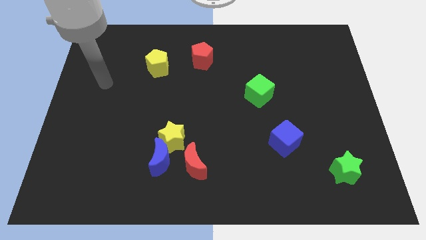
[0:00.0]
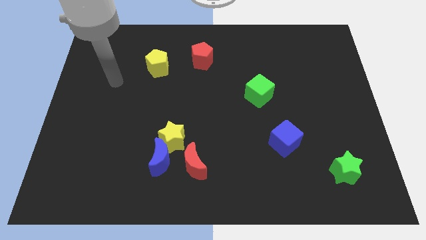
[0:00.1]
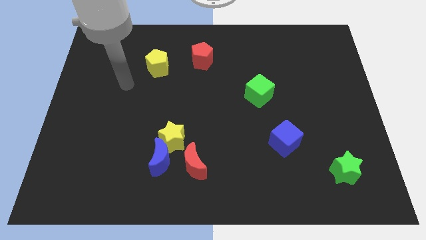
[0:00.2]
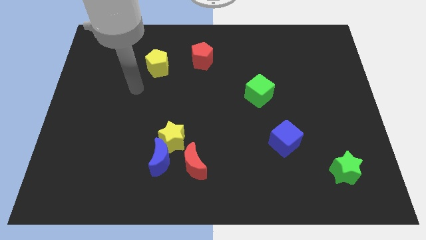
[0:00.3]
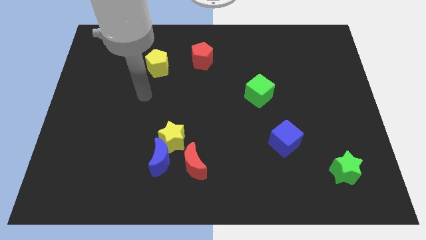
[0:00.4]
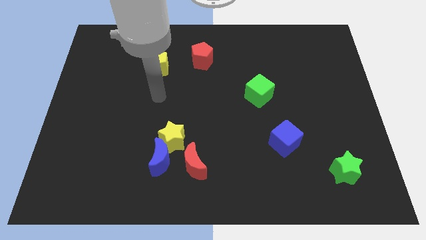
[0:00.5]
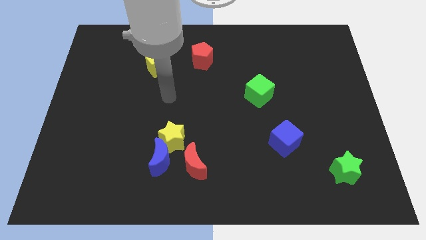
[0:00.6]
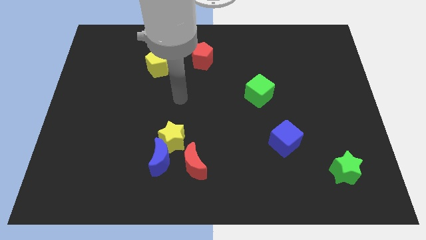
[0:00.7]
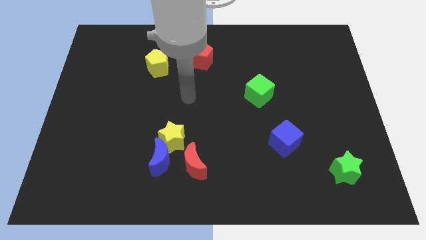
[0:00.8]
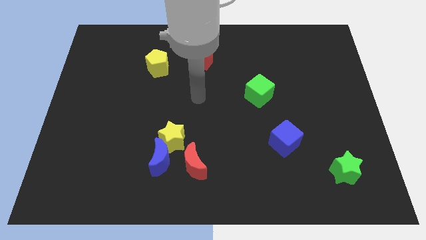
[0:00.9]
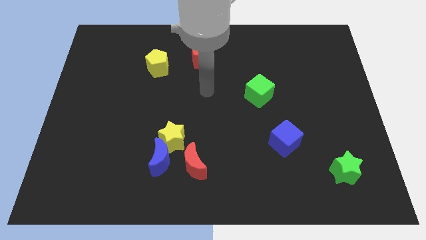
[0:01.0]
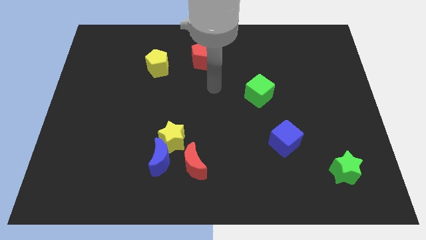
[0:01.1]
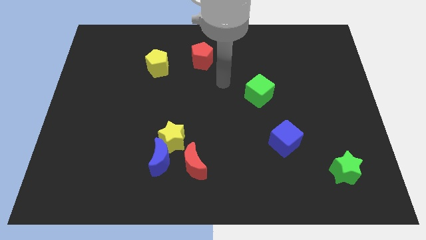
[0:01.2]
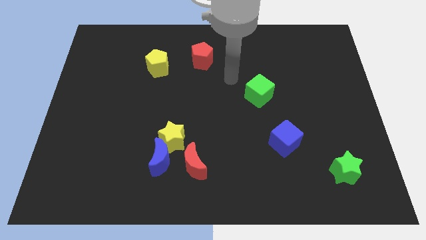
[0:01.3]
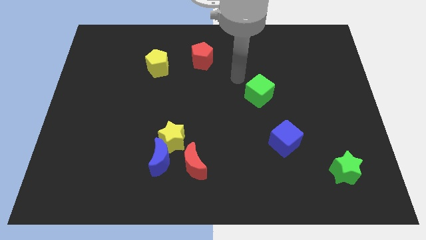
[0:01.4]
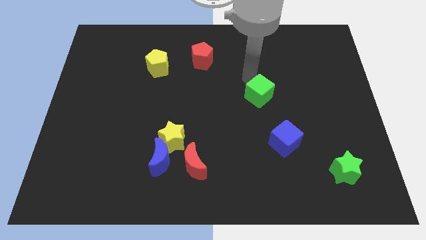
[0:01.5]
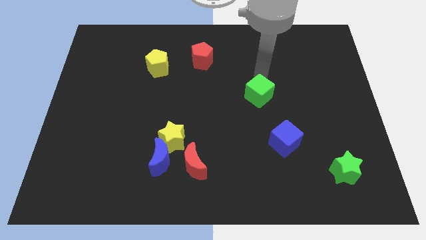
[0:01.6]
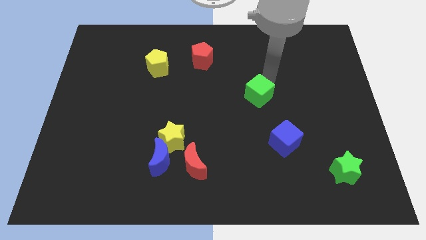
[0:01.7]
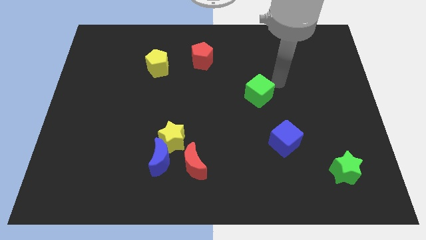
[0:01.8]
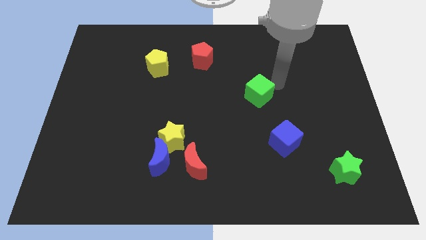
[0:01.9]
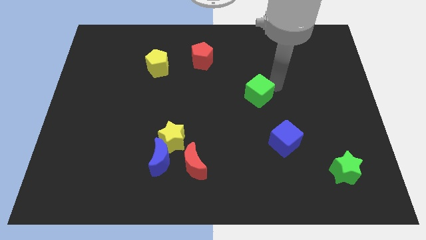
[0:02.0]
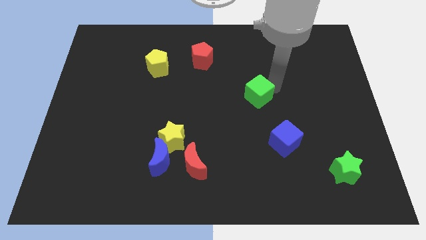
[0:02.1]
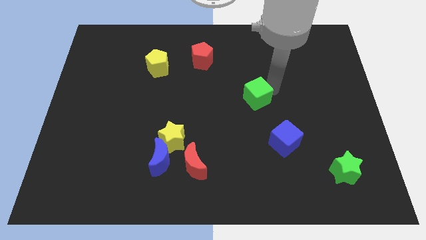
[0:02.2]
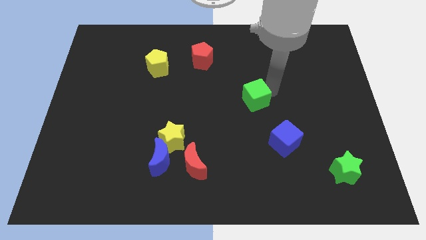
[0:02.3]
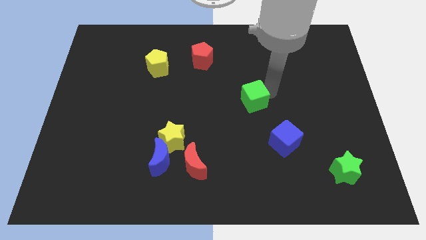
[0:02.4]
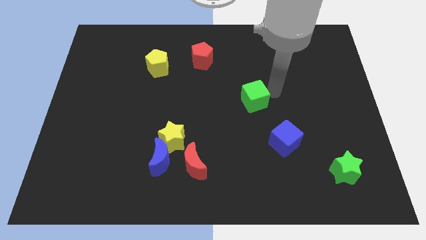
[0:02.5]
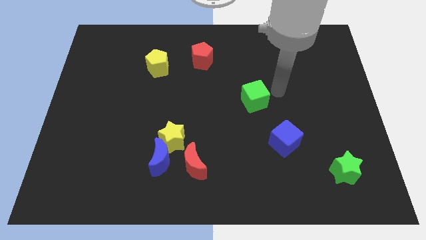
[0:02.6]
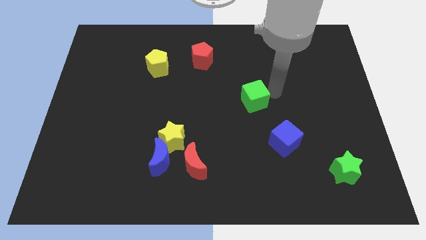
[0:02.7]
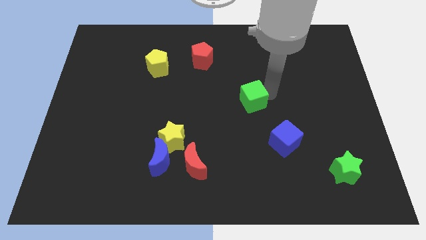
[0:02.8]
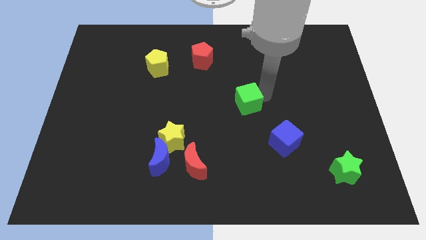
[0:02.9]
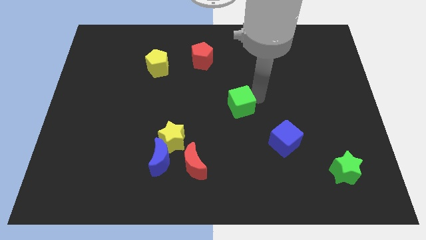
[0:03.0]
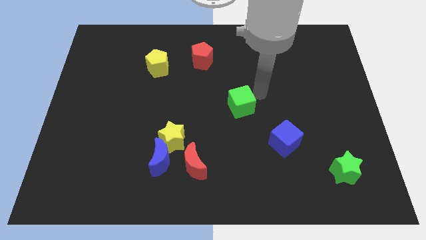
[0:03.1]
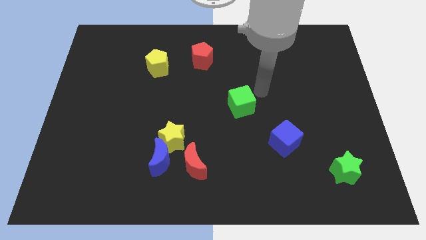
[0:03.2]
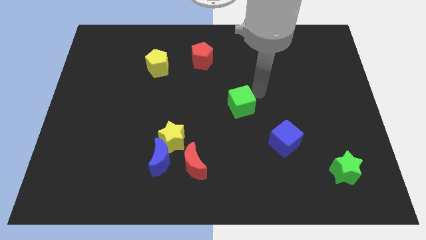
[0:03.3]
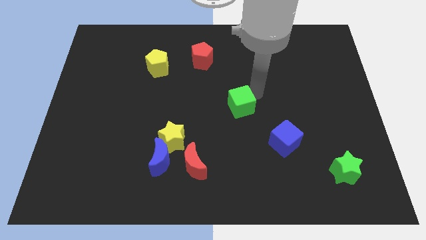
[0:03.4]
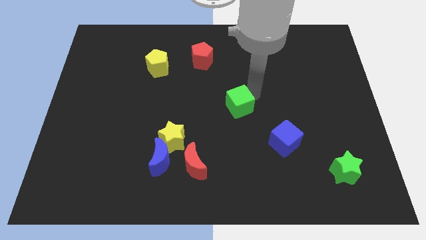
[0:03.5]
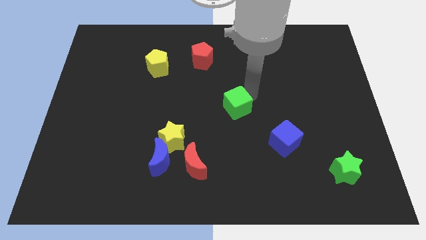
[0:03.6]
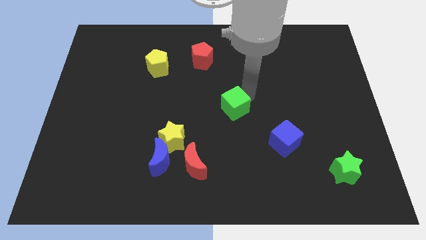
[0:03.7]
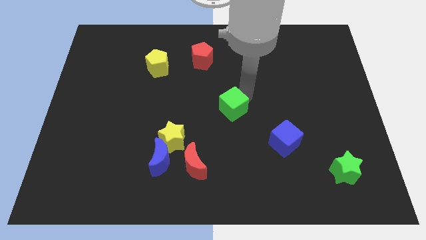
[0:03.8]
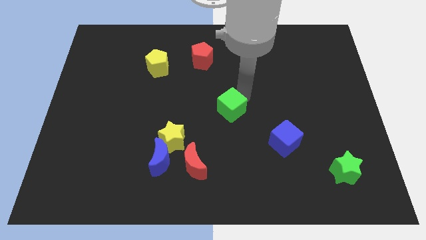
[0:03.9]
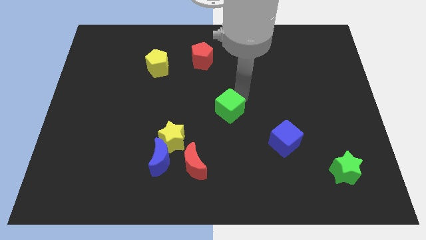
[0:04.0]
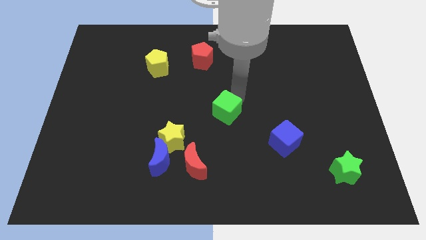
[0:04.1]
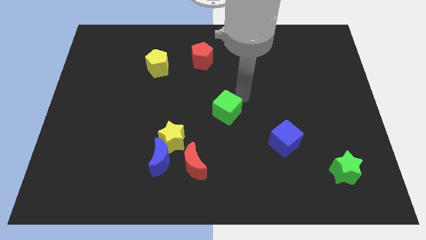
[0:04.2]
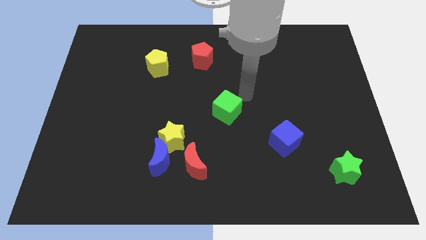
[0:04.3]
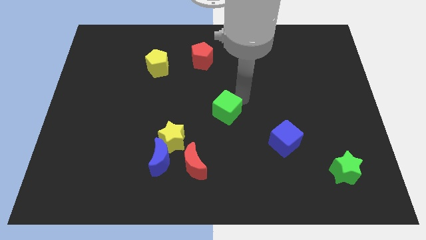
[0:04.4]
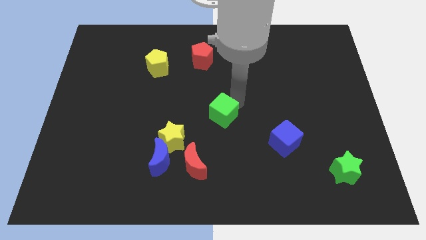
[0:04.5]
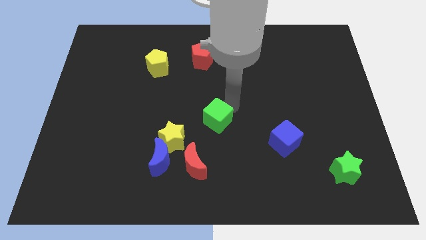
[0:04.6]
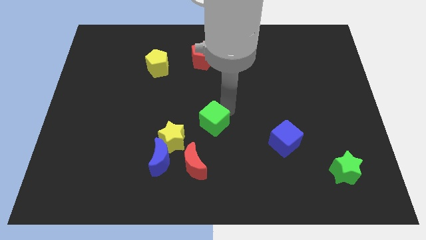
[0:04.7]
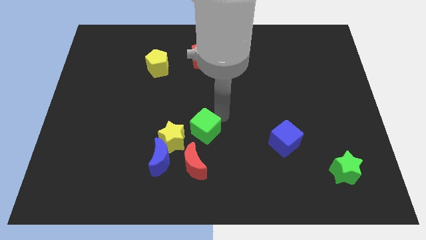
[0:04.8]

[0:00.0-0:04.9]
move the green cube to the top right side of the blue moon

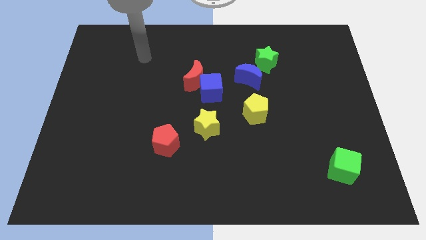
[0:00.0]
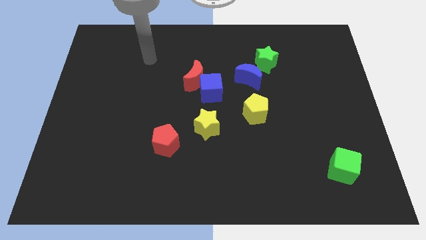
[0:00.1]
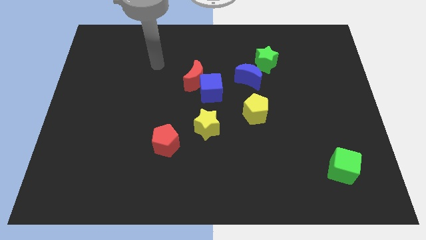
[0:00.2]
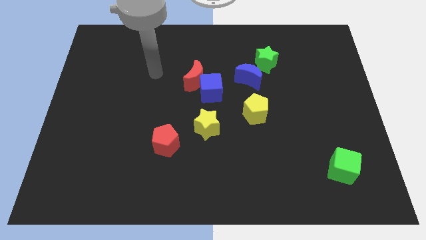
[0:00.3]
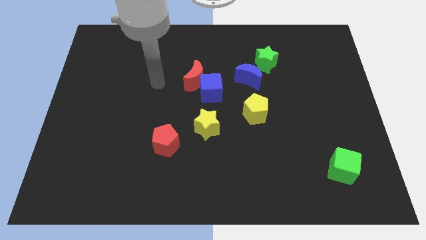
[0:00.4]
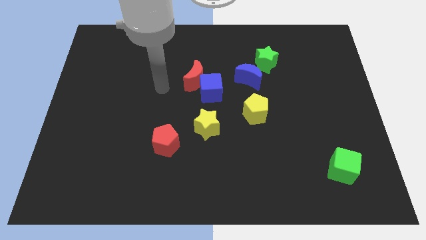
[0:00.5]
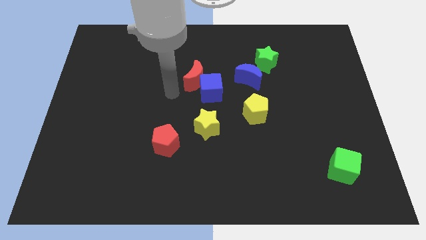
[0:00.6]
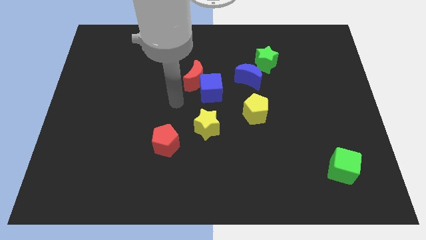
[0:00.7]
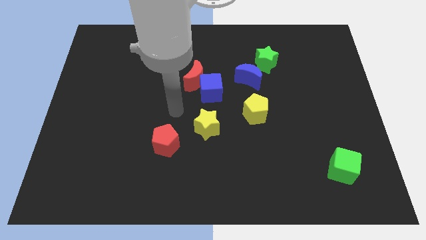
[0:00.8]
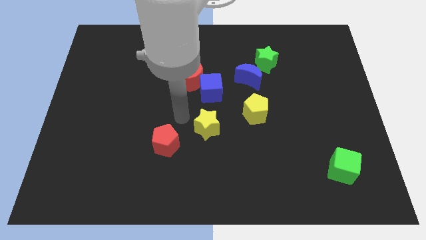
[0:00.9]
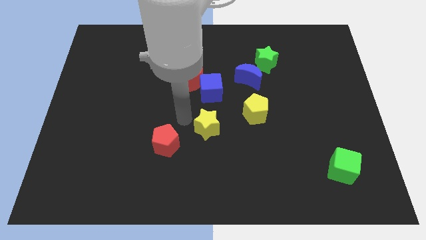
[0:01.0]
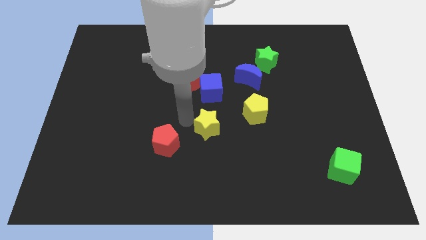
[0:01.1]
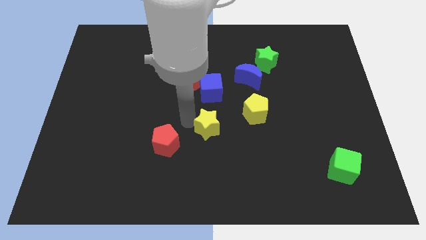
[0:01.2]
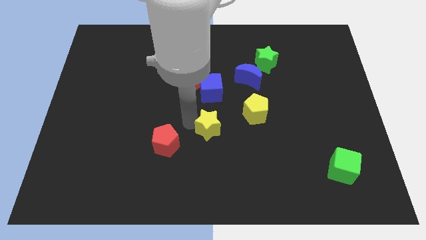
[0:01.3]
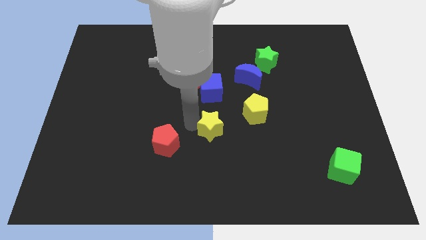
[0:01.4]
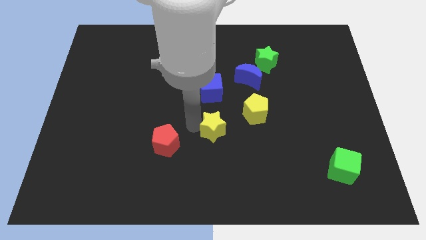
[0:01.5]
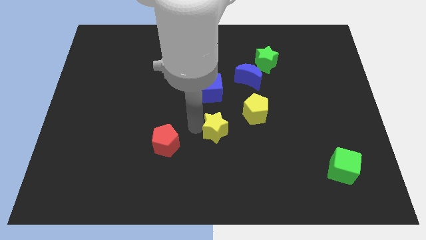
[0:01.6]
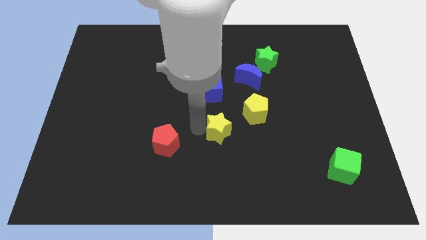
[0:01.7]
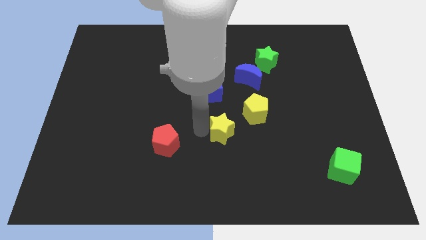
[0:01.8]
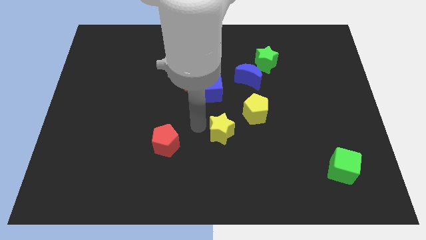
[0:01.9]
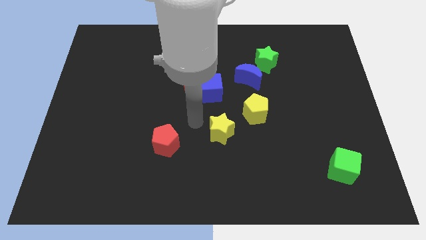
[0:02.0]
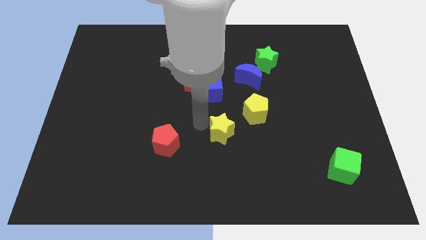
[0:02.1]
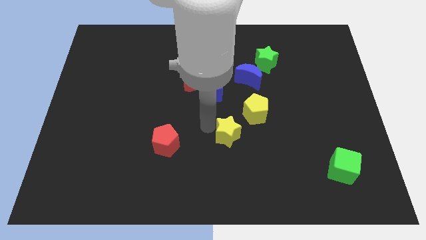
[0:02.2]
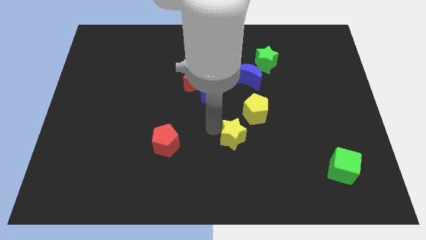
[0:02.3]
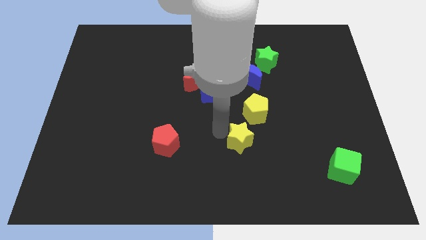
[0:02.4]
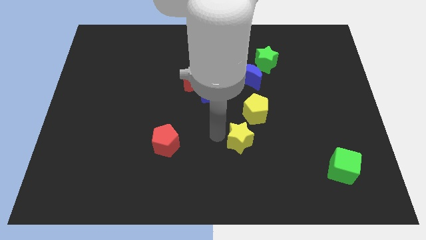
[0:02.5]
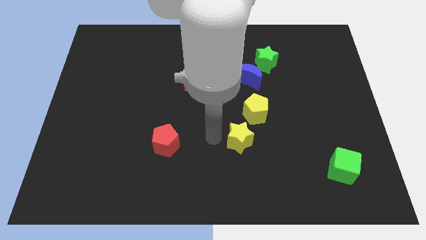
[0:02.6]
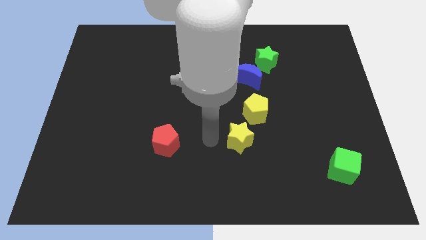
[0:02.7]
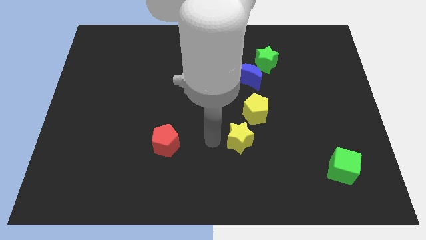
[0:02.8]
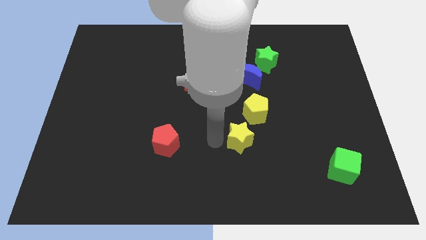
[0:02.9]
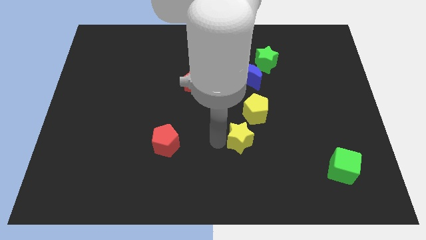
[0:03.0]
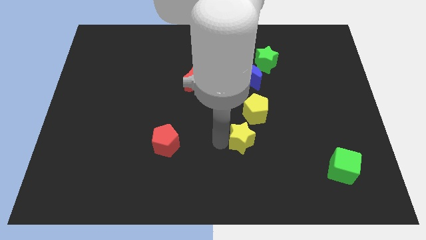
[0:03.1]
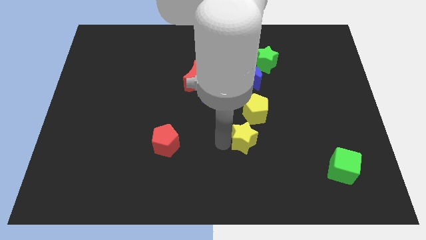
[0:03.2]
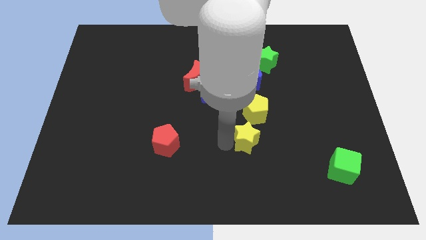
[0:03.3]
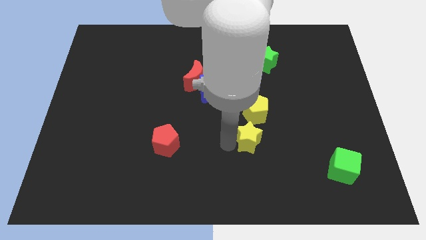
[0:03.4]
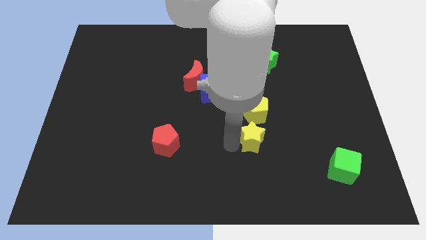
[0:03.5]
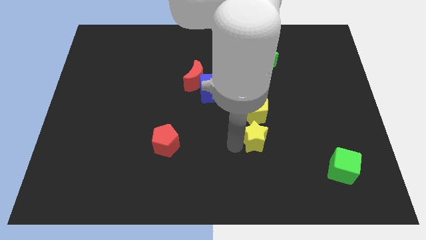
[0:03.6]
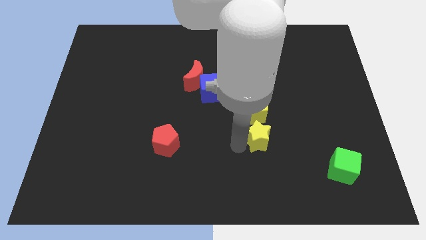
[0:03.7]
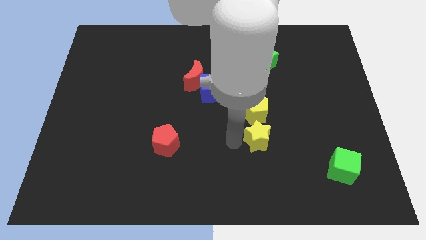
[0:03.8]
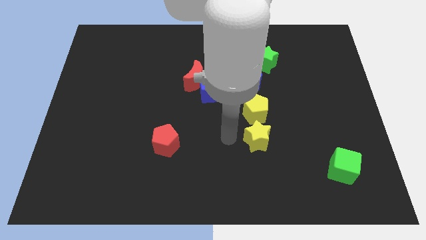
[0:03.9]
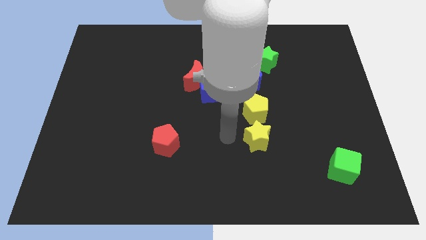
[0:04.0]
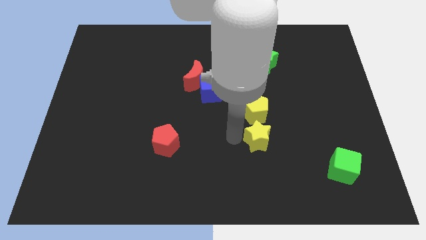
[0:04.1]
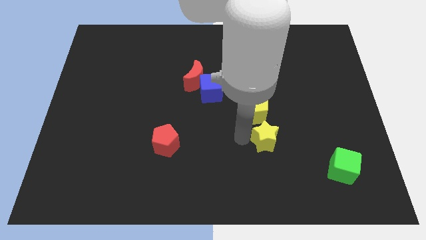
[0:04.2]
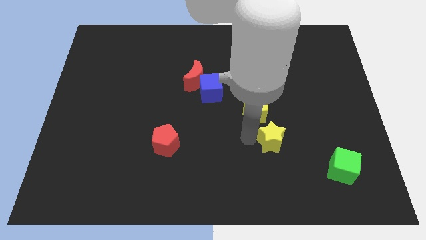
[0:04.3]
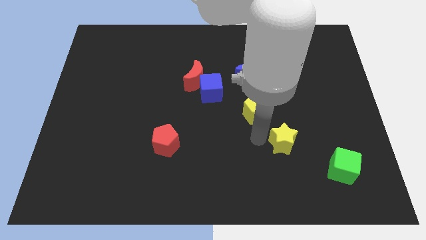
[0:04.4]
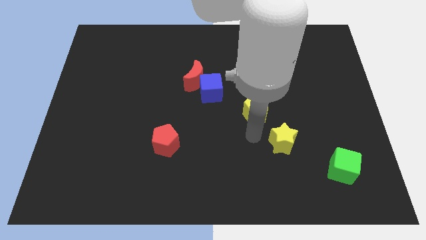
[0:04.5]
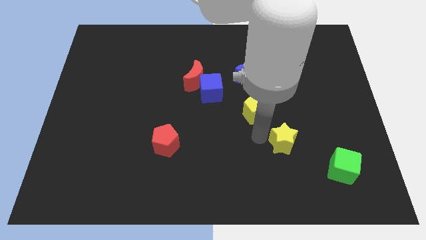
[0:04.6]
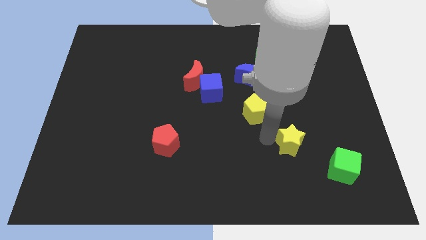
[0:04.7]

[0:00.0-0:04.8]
push the yellow star to the top left side of the green cube
